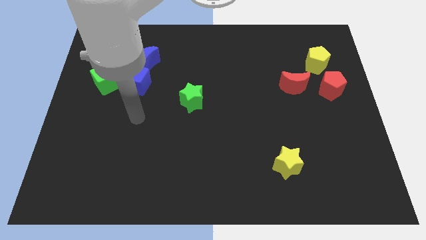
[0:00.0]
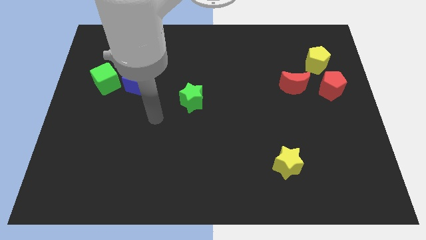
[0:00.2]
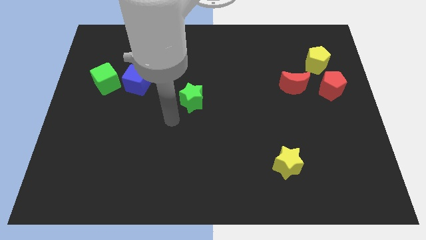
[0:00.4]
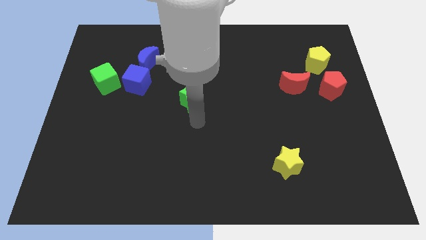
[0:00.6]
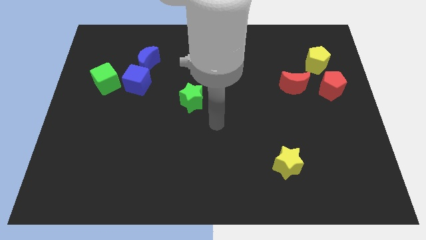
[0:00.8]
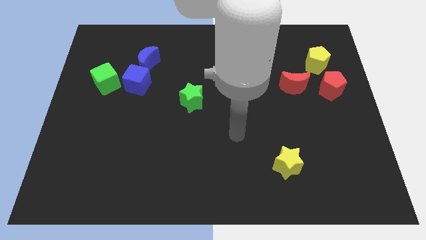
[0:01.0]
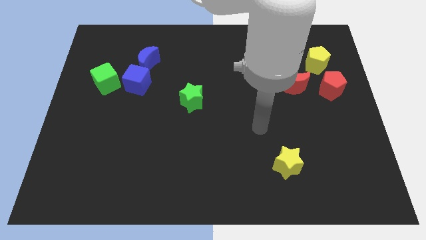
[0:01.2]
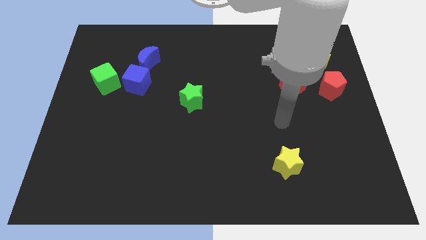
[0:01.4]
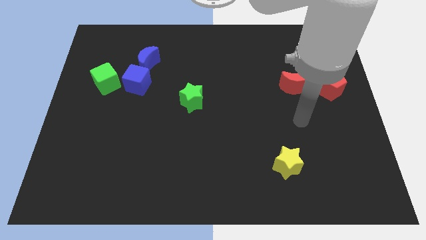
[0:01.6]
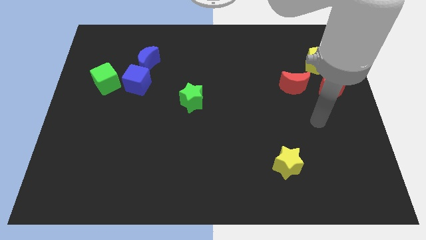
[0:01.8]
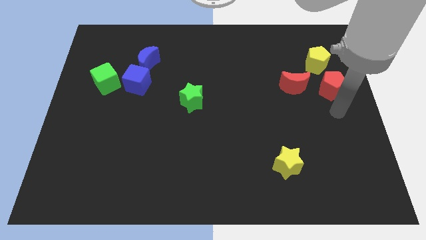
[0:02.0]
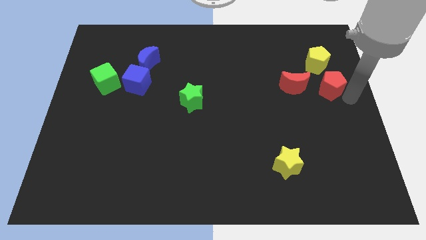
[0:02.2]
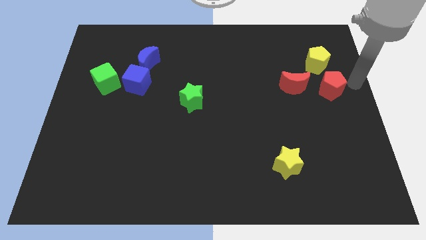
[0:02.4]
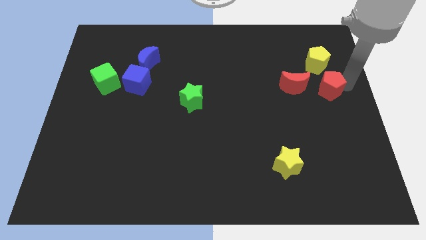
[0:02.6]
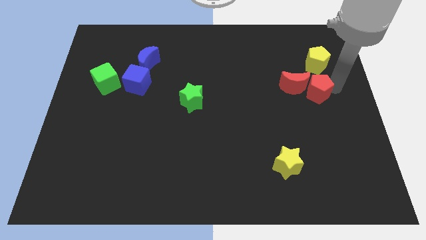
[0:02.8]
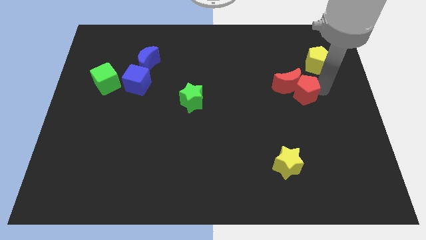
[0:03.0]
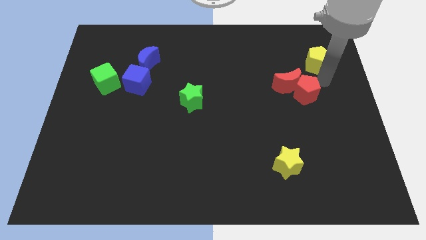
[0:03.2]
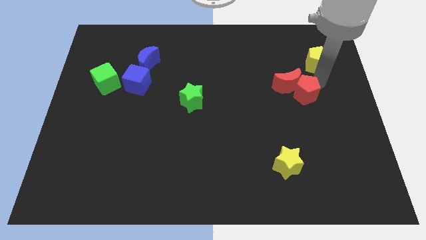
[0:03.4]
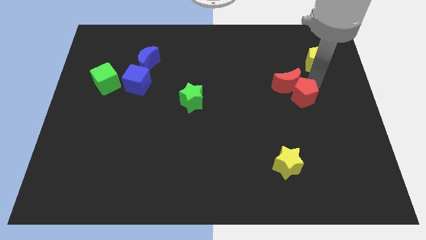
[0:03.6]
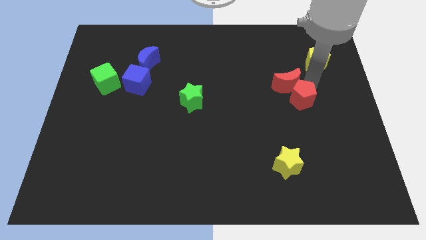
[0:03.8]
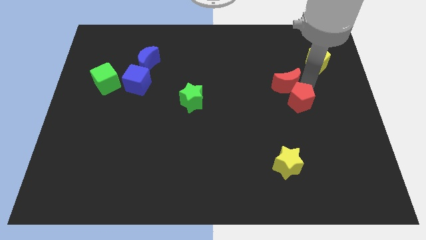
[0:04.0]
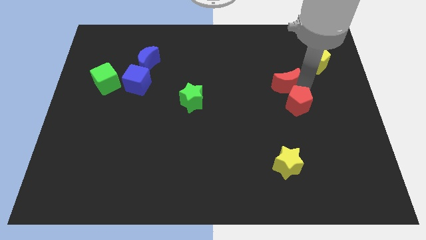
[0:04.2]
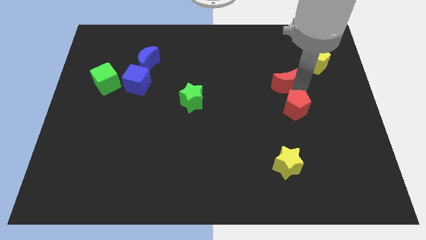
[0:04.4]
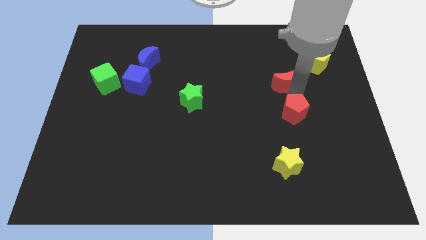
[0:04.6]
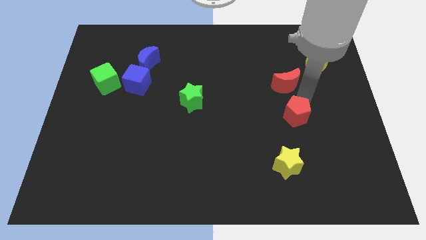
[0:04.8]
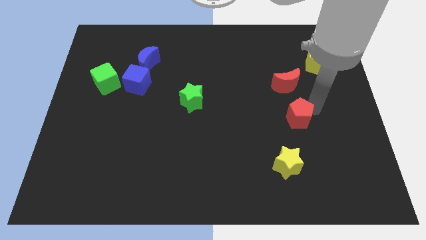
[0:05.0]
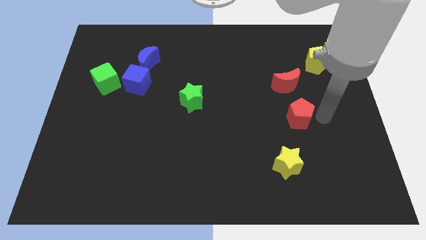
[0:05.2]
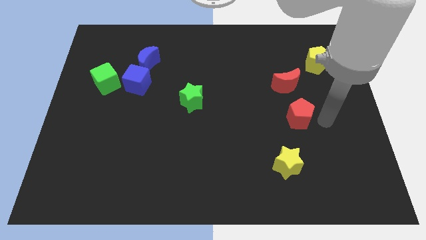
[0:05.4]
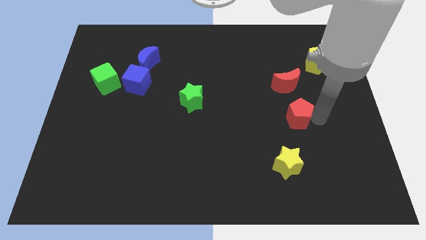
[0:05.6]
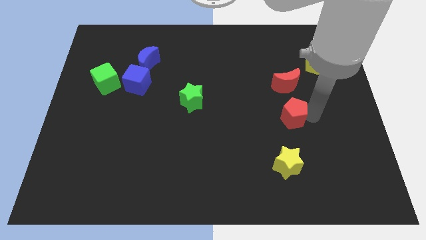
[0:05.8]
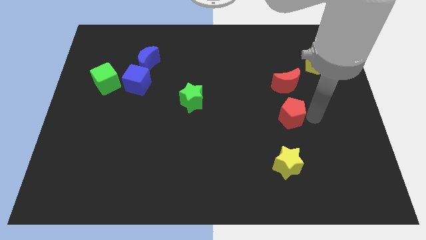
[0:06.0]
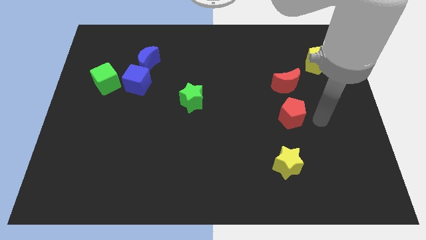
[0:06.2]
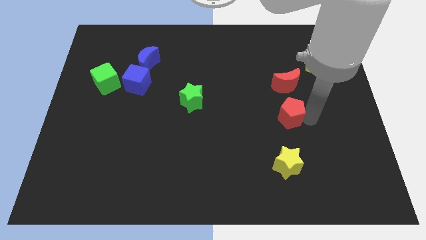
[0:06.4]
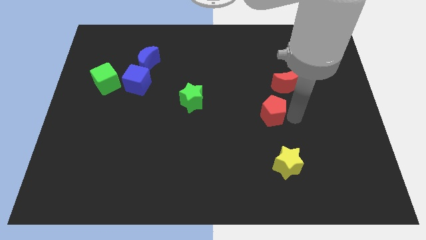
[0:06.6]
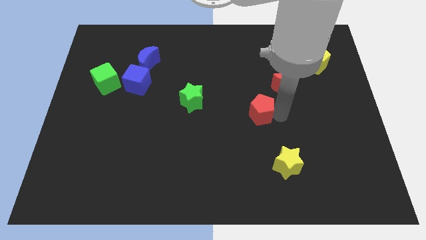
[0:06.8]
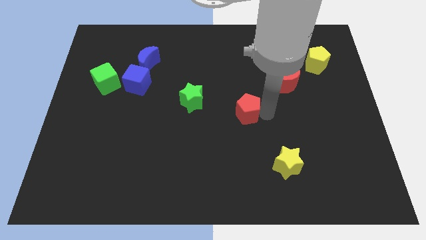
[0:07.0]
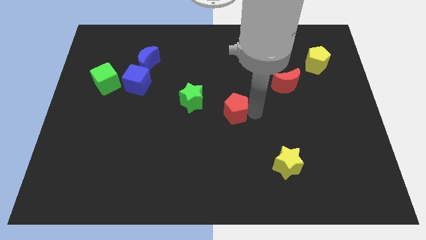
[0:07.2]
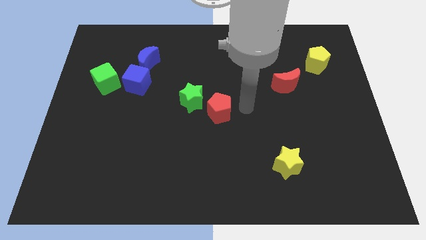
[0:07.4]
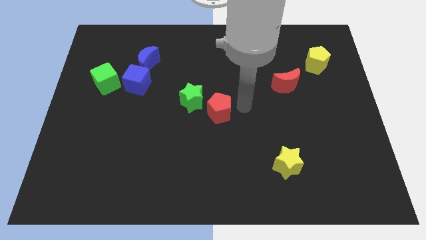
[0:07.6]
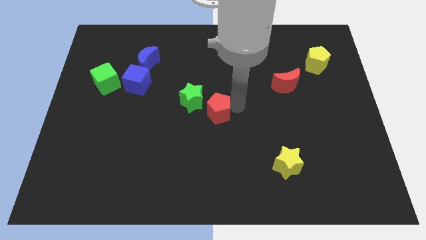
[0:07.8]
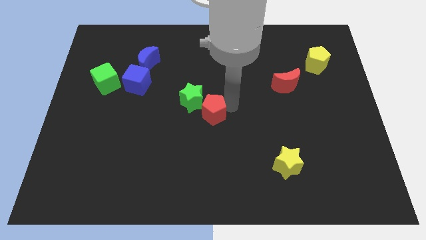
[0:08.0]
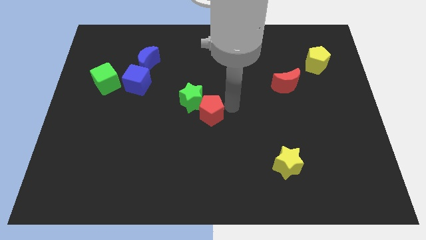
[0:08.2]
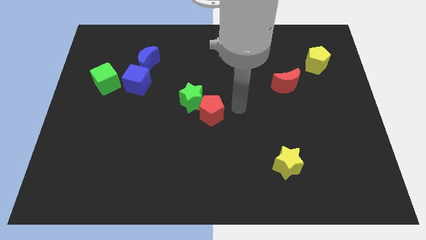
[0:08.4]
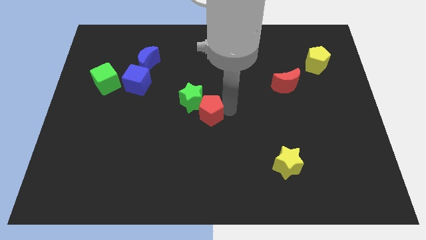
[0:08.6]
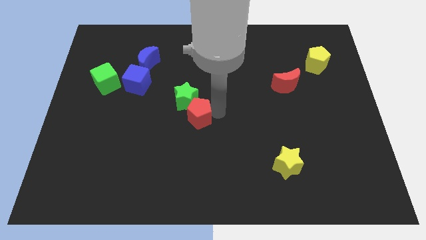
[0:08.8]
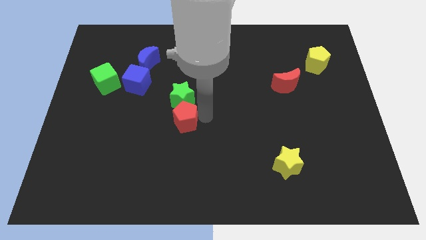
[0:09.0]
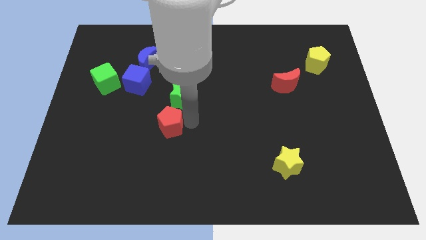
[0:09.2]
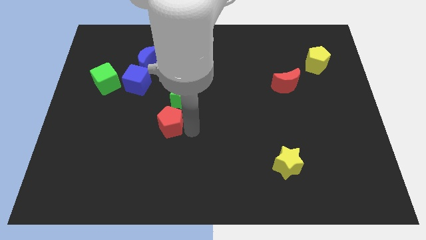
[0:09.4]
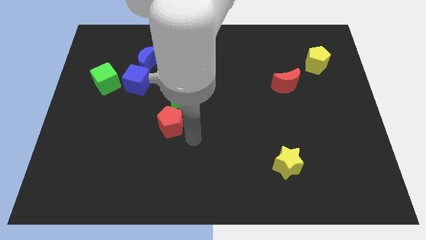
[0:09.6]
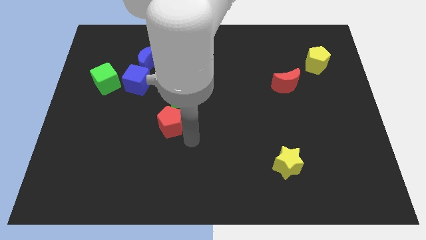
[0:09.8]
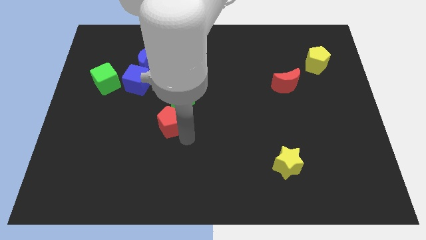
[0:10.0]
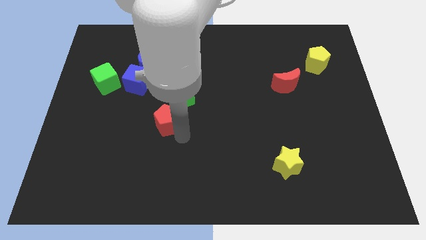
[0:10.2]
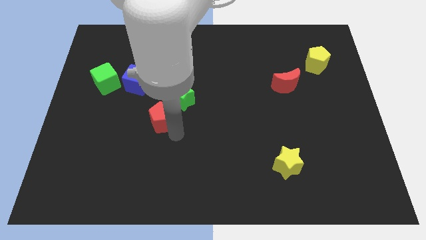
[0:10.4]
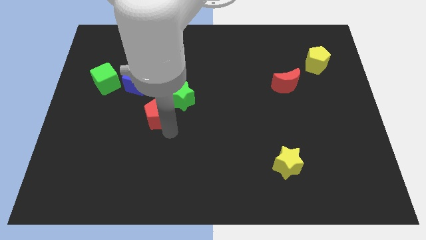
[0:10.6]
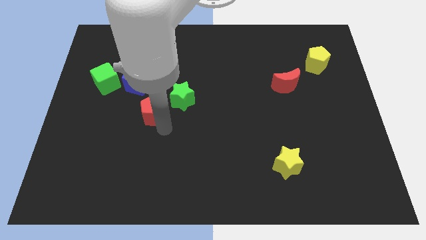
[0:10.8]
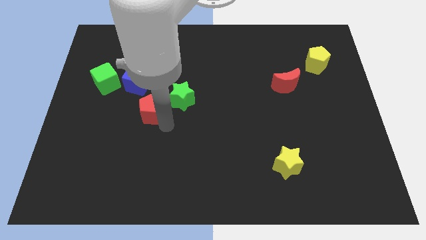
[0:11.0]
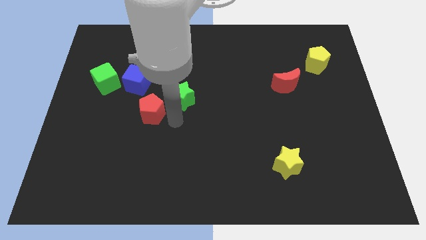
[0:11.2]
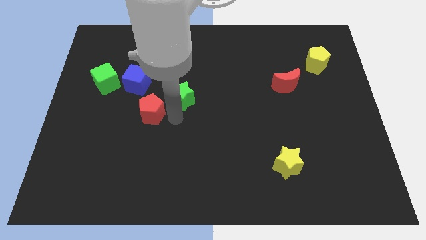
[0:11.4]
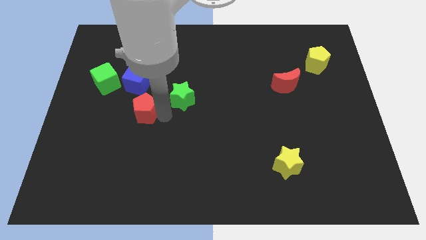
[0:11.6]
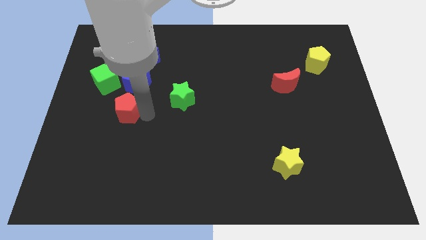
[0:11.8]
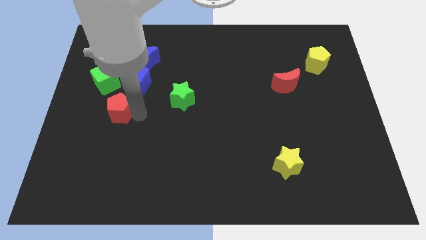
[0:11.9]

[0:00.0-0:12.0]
move the red pentagon to the bottom left of the blue cube

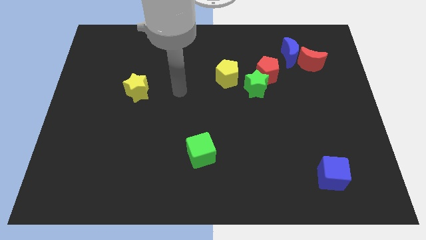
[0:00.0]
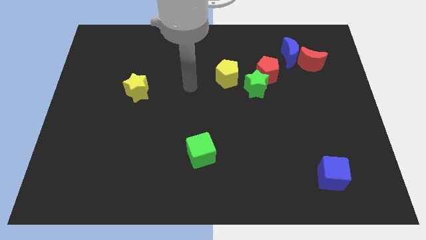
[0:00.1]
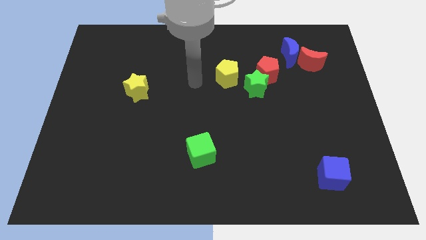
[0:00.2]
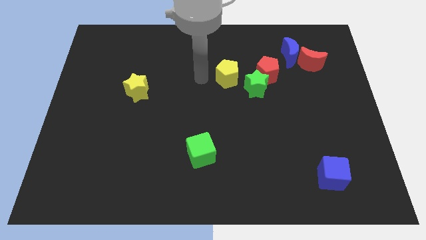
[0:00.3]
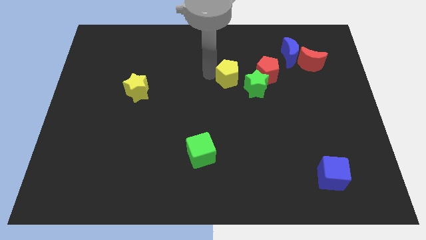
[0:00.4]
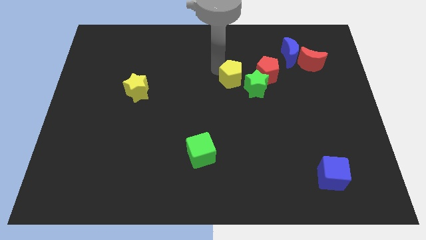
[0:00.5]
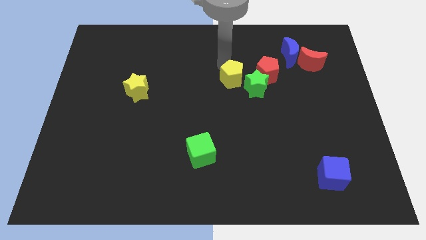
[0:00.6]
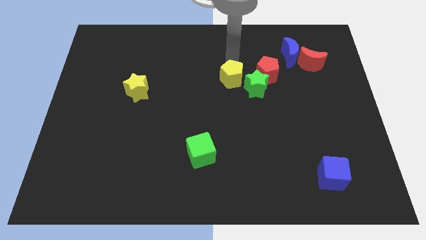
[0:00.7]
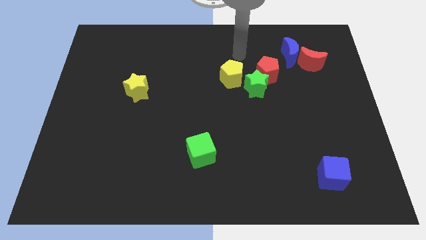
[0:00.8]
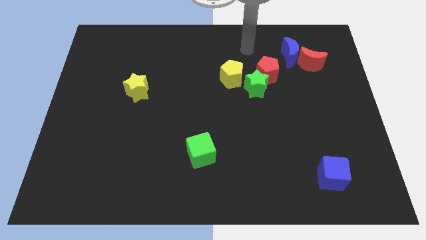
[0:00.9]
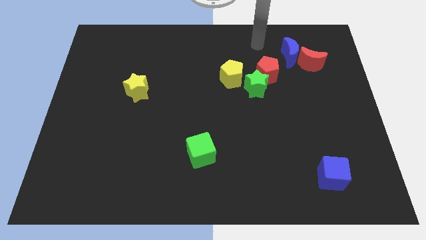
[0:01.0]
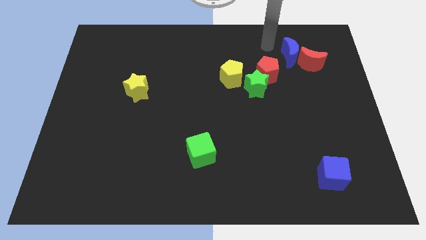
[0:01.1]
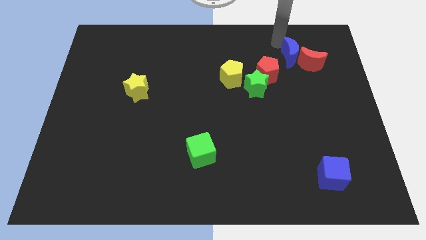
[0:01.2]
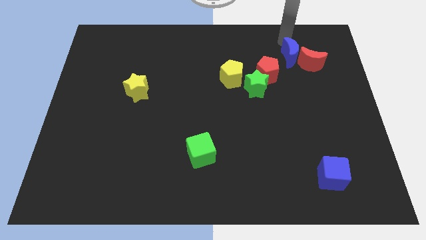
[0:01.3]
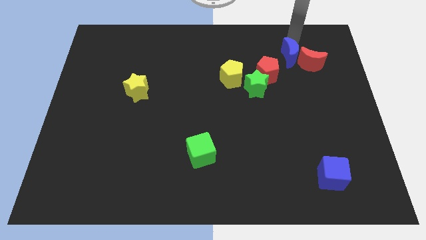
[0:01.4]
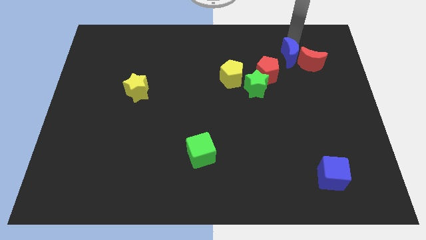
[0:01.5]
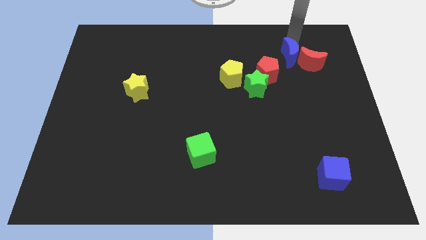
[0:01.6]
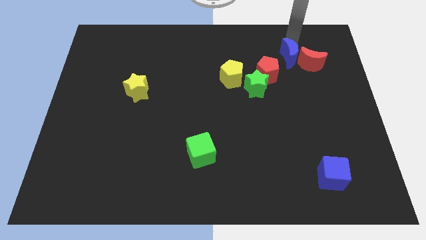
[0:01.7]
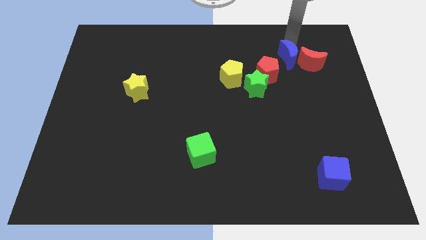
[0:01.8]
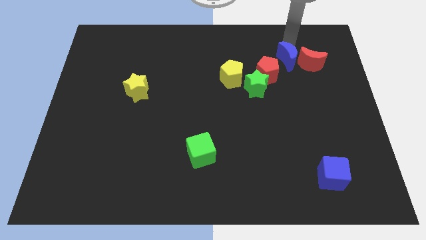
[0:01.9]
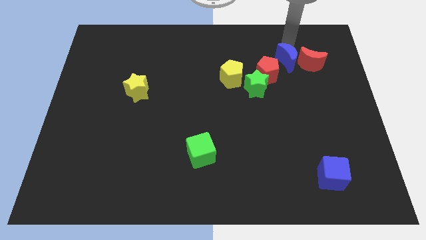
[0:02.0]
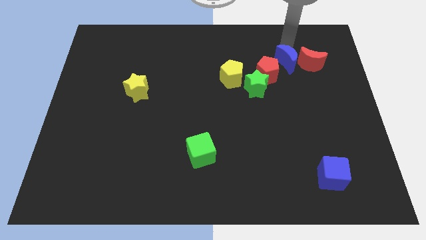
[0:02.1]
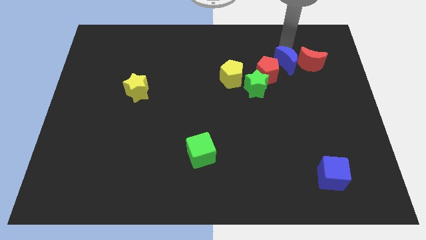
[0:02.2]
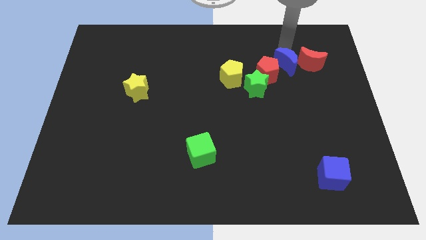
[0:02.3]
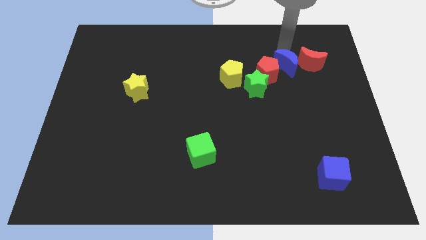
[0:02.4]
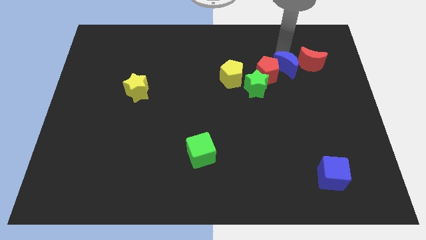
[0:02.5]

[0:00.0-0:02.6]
slide the blue moon to the right of the yellow pentagon
